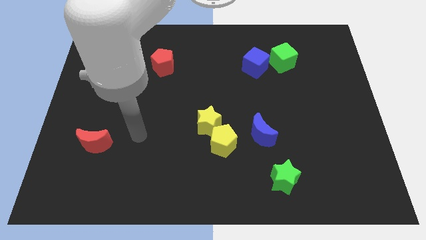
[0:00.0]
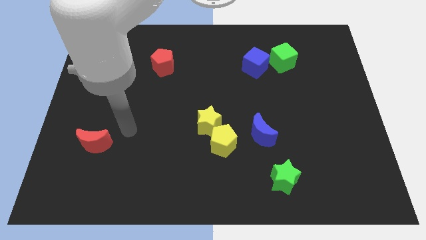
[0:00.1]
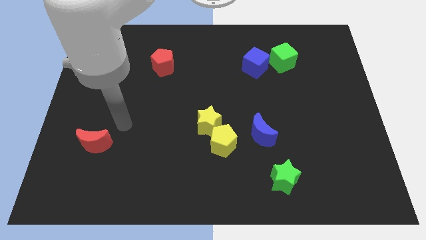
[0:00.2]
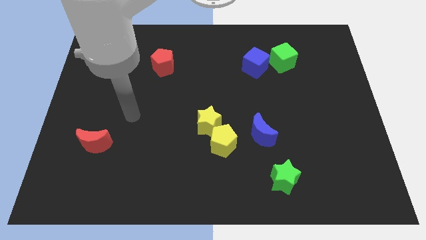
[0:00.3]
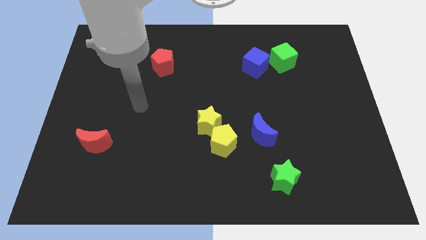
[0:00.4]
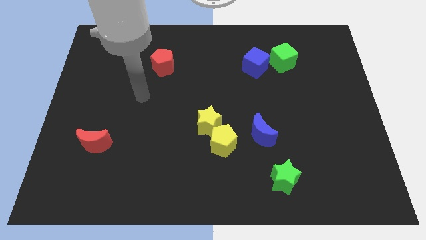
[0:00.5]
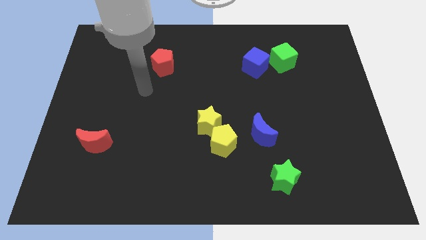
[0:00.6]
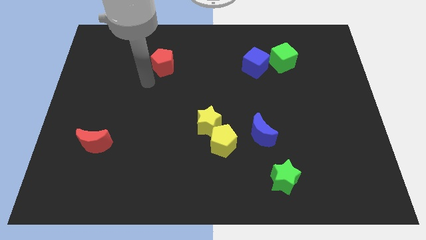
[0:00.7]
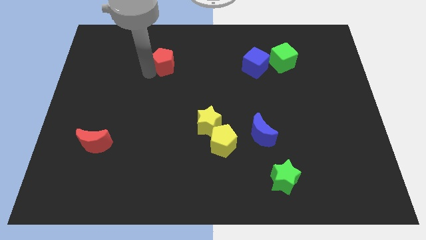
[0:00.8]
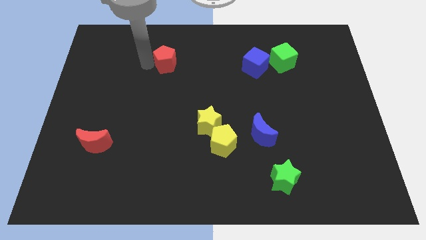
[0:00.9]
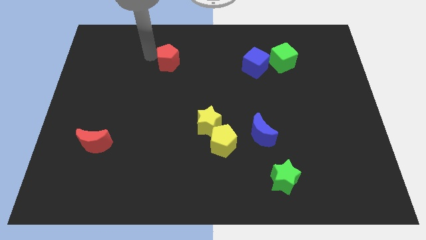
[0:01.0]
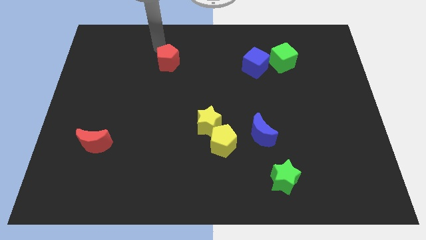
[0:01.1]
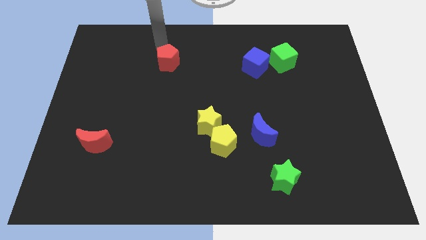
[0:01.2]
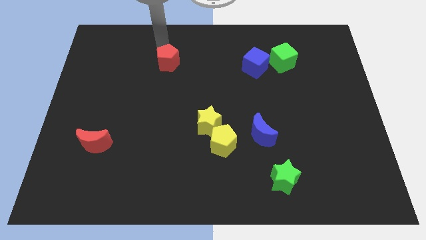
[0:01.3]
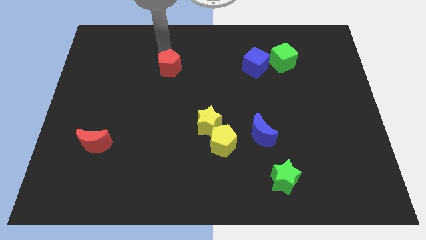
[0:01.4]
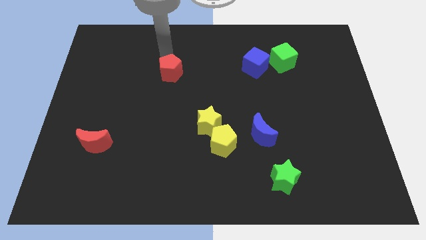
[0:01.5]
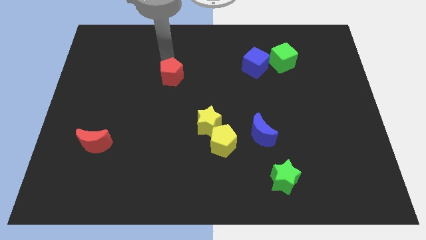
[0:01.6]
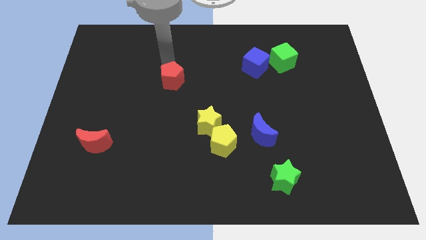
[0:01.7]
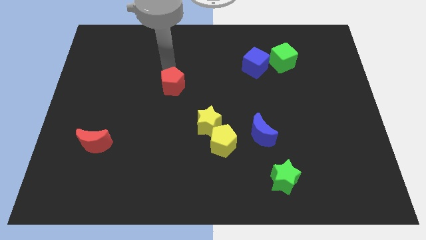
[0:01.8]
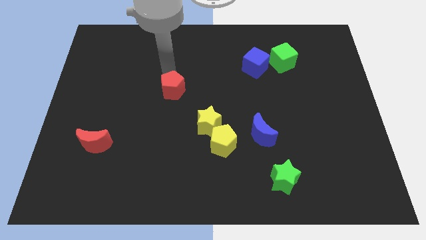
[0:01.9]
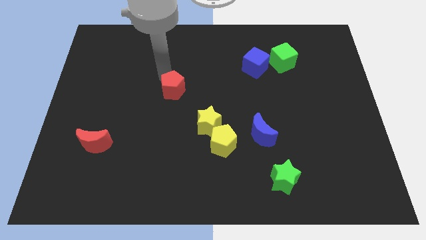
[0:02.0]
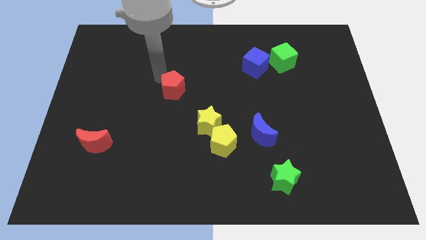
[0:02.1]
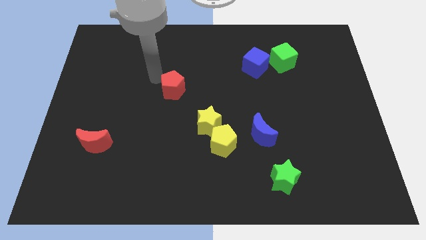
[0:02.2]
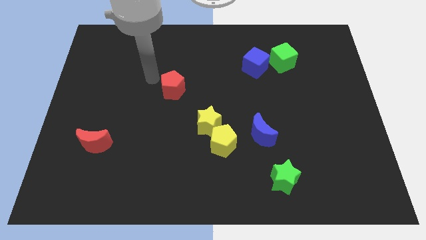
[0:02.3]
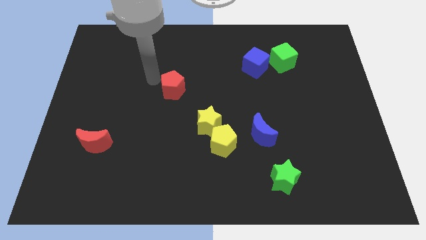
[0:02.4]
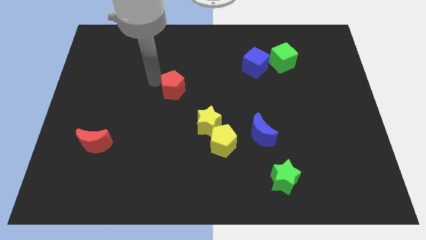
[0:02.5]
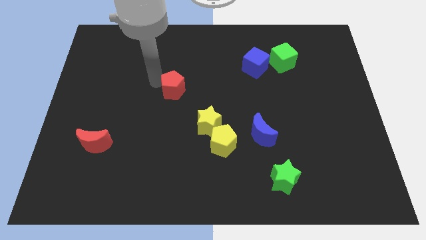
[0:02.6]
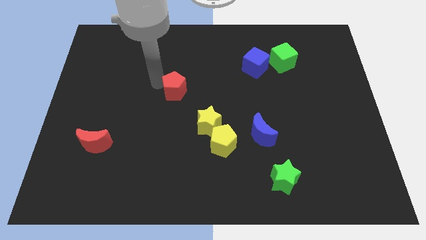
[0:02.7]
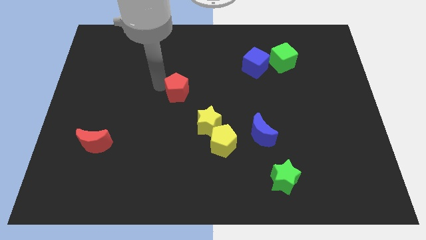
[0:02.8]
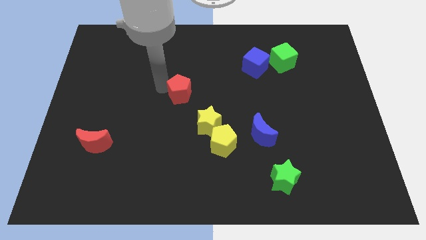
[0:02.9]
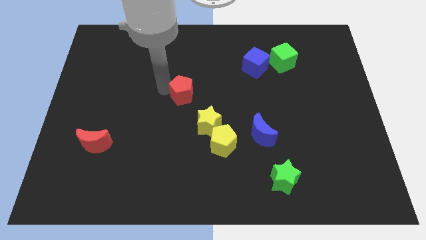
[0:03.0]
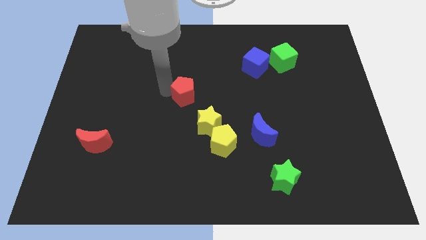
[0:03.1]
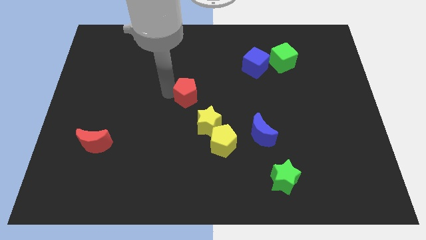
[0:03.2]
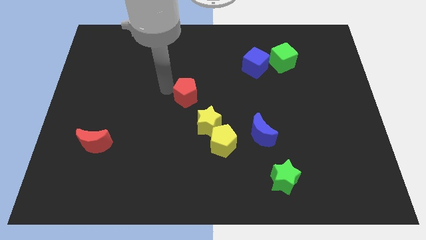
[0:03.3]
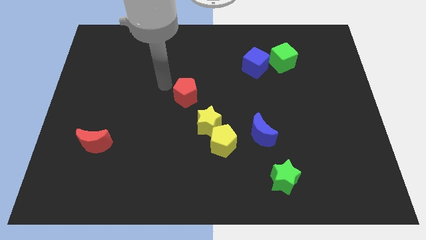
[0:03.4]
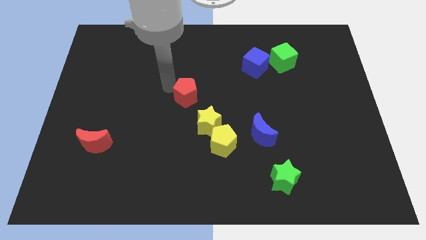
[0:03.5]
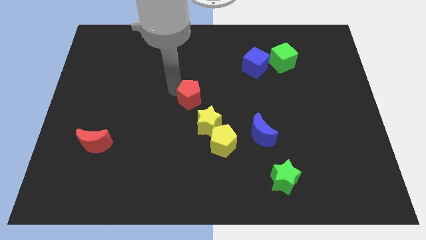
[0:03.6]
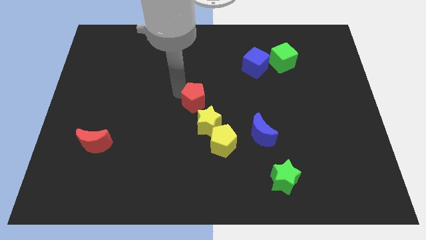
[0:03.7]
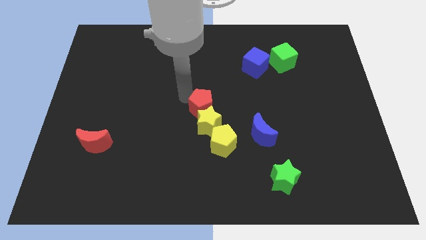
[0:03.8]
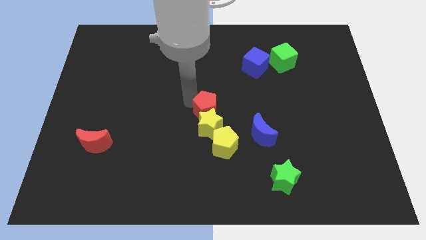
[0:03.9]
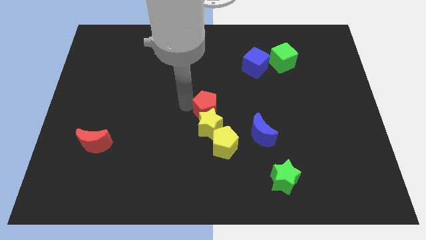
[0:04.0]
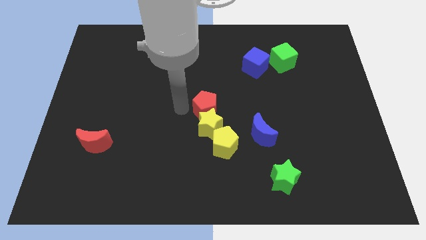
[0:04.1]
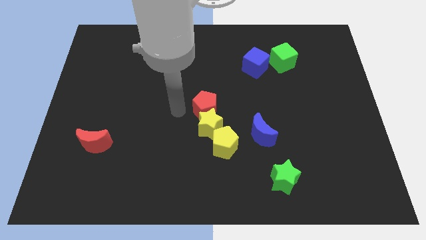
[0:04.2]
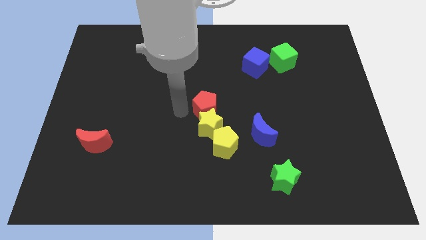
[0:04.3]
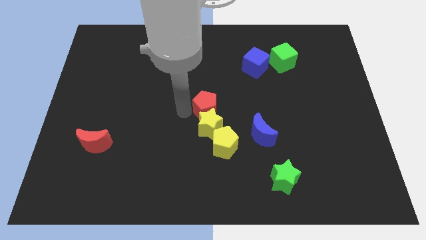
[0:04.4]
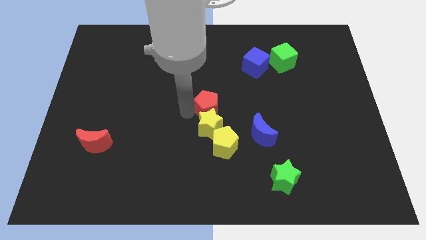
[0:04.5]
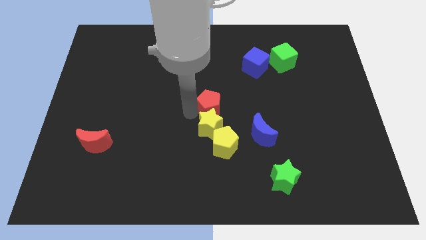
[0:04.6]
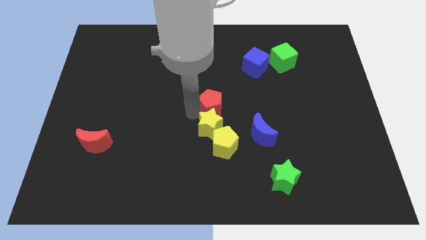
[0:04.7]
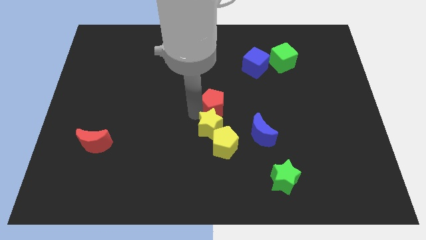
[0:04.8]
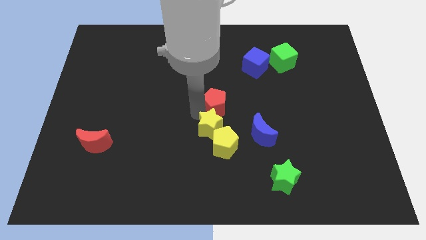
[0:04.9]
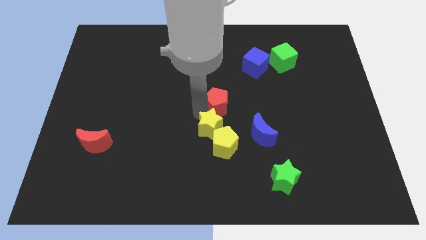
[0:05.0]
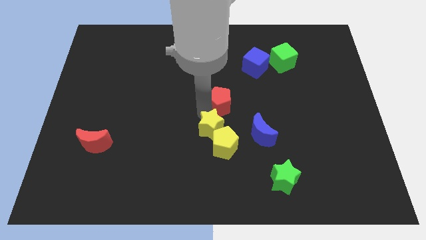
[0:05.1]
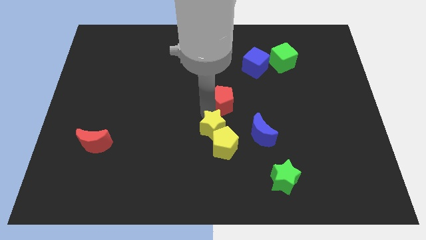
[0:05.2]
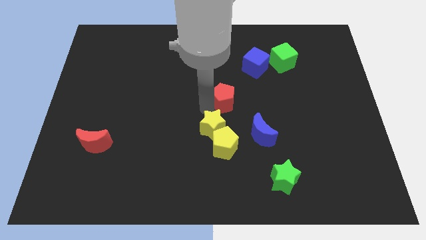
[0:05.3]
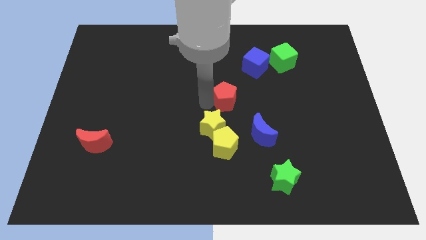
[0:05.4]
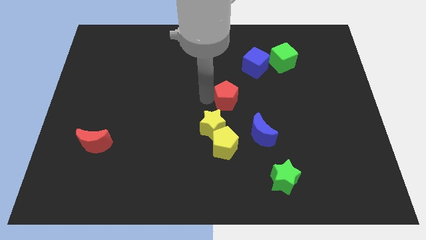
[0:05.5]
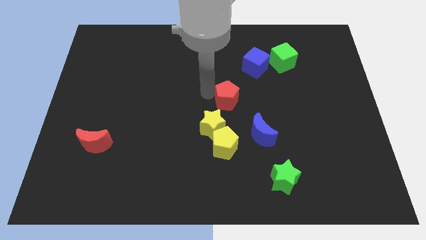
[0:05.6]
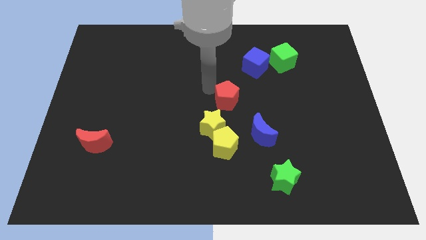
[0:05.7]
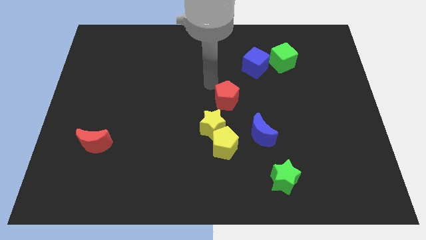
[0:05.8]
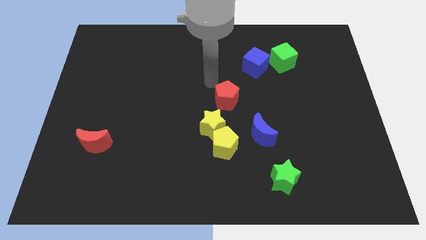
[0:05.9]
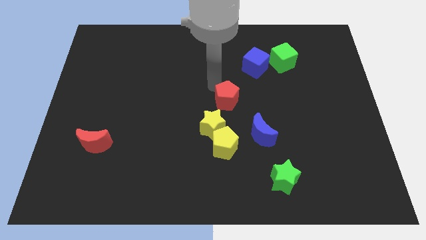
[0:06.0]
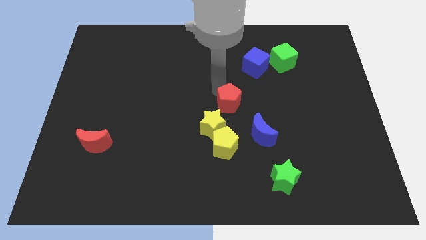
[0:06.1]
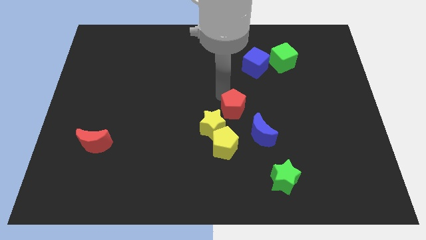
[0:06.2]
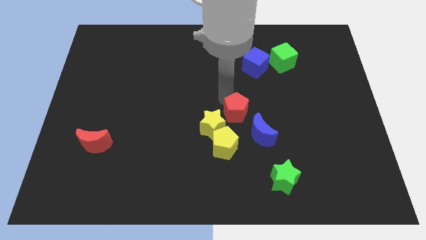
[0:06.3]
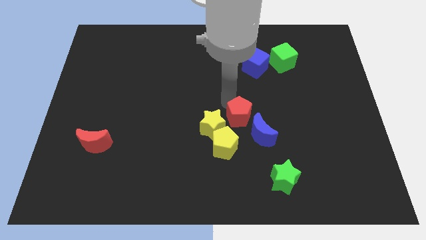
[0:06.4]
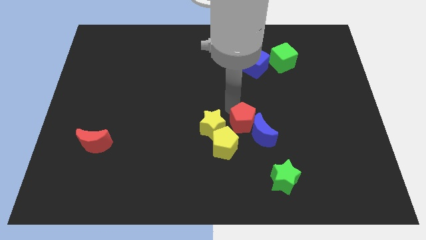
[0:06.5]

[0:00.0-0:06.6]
slide the red pentagon close to the blue moon
